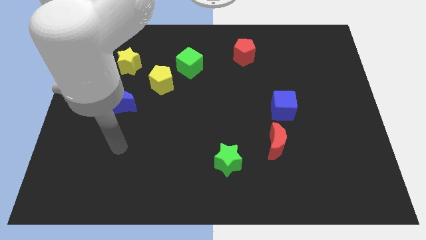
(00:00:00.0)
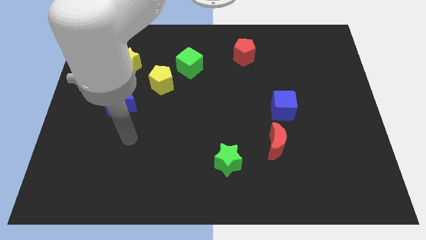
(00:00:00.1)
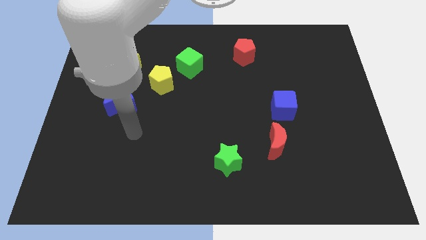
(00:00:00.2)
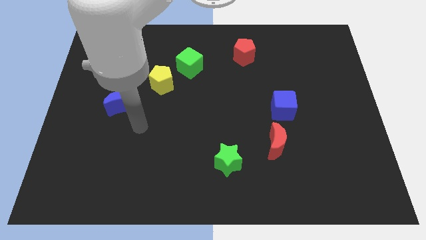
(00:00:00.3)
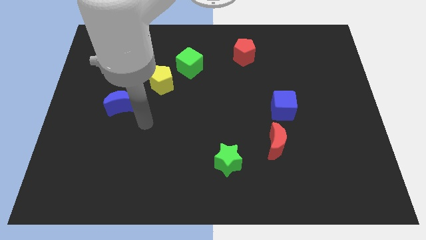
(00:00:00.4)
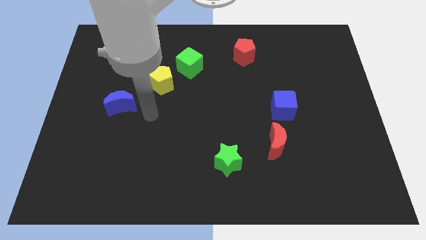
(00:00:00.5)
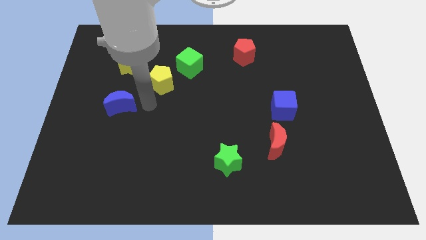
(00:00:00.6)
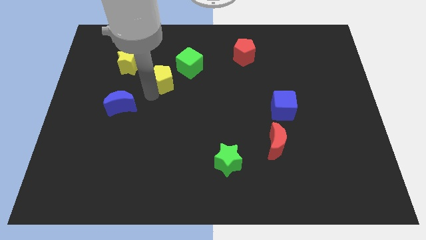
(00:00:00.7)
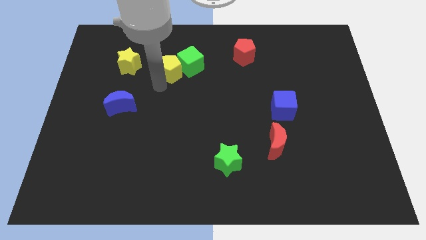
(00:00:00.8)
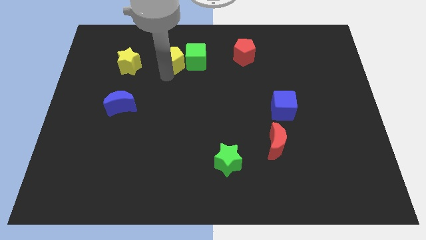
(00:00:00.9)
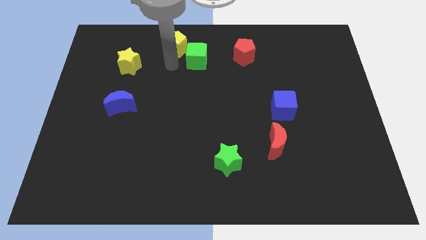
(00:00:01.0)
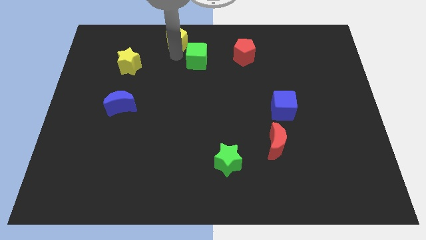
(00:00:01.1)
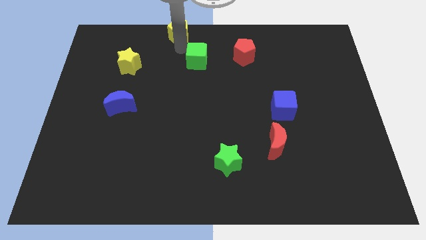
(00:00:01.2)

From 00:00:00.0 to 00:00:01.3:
move the green cube away from the yellow pentagon

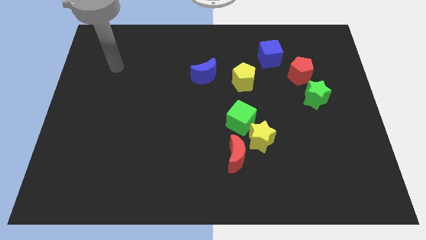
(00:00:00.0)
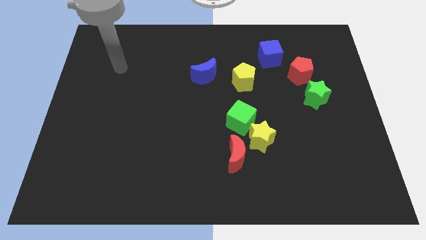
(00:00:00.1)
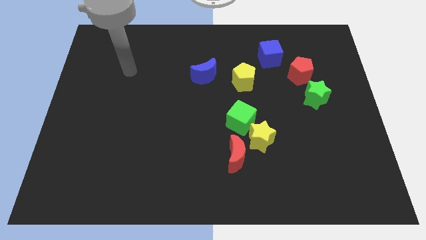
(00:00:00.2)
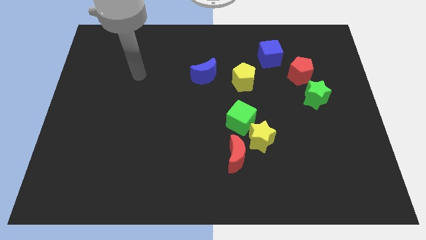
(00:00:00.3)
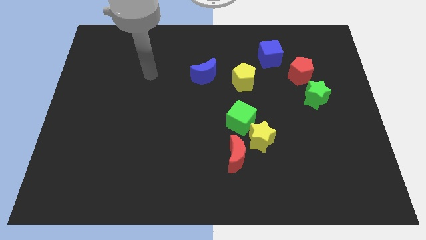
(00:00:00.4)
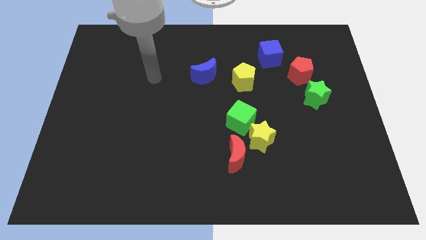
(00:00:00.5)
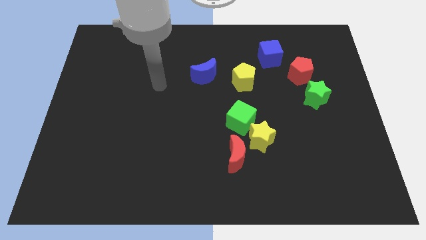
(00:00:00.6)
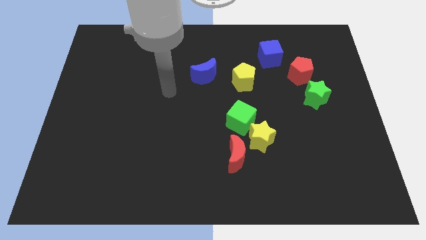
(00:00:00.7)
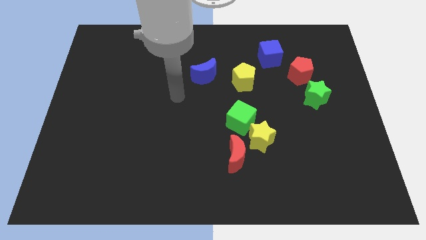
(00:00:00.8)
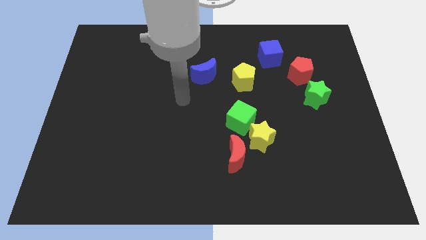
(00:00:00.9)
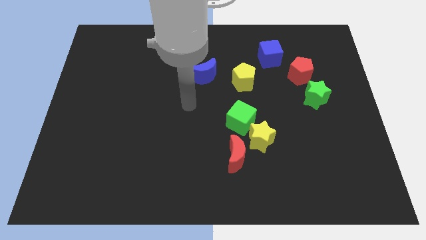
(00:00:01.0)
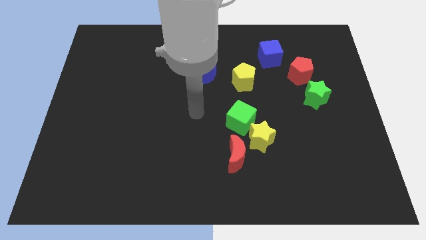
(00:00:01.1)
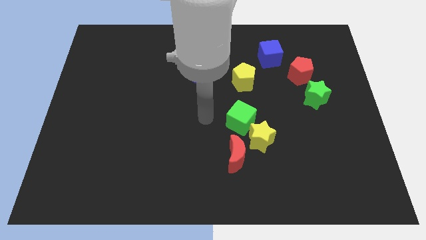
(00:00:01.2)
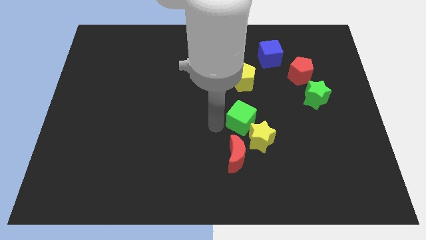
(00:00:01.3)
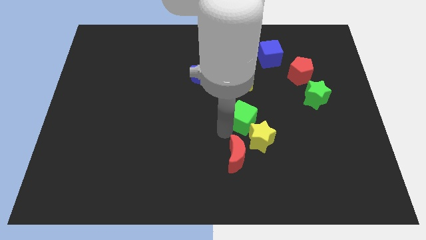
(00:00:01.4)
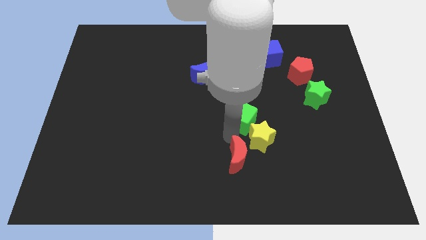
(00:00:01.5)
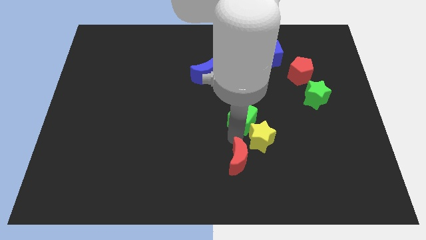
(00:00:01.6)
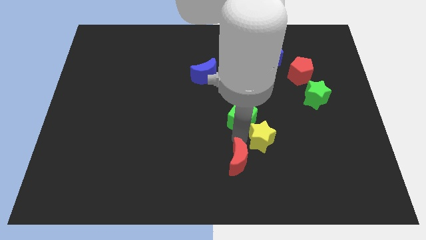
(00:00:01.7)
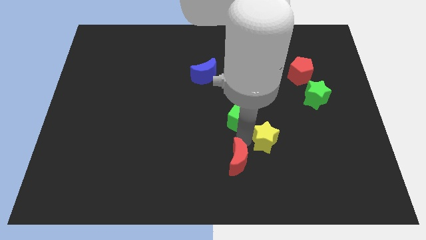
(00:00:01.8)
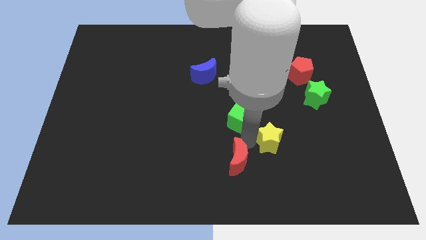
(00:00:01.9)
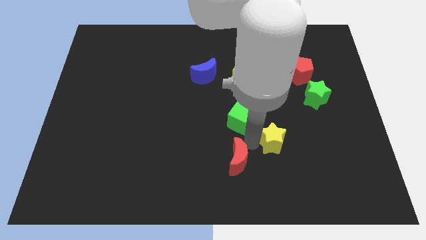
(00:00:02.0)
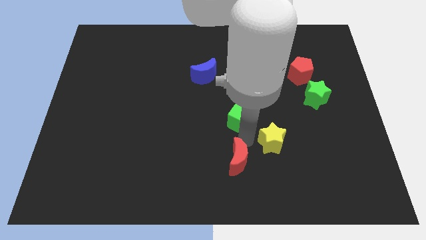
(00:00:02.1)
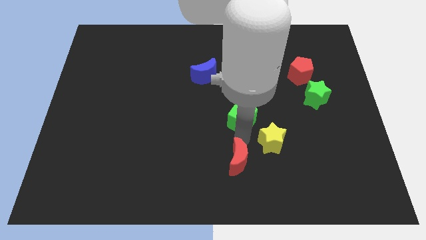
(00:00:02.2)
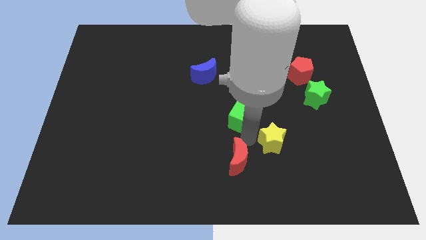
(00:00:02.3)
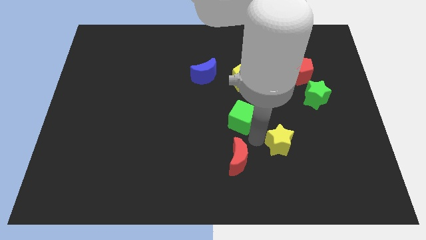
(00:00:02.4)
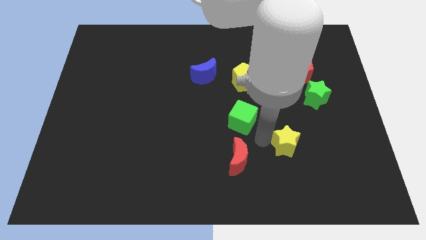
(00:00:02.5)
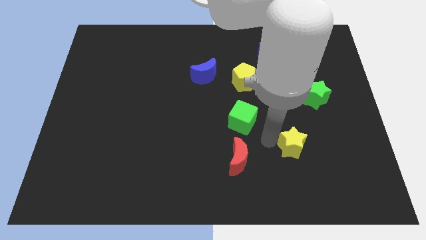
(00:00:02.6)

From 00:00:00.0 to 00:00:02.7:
move the yellow star away from the green cube and red moon

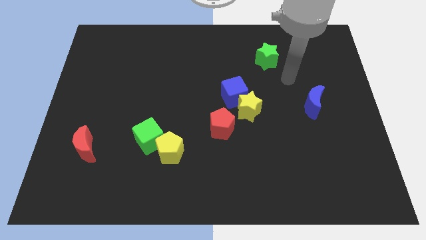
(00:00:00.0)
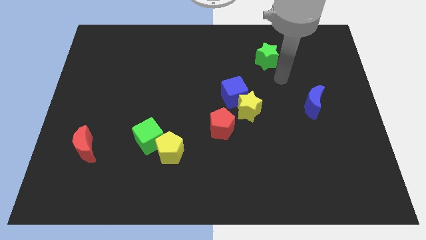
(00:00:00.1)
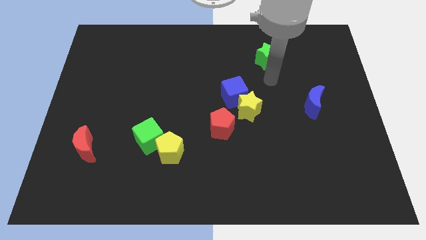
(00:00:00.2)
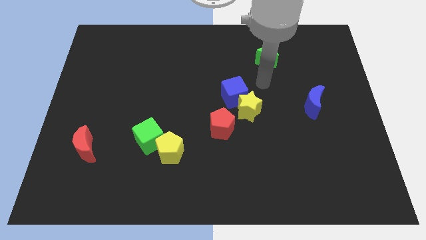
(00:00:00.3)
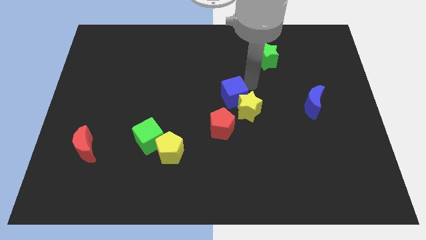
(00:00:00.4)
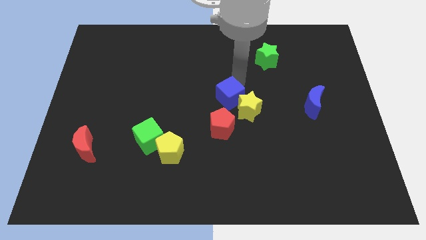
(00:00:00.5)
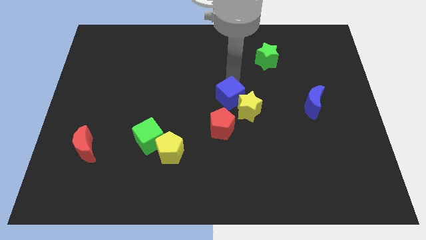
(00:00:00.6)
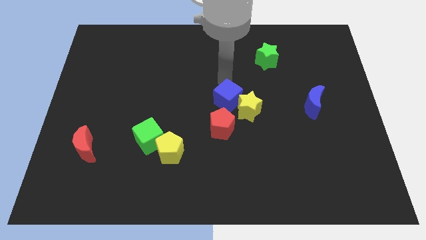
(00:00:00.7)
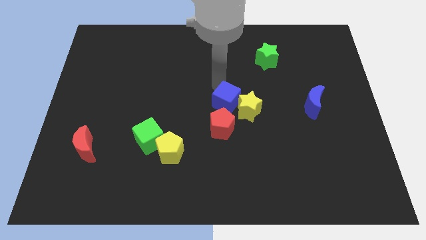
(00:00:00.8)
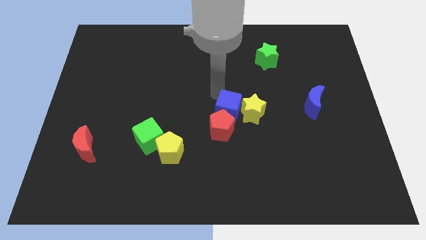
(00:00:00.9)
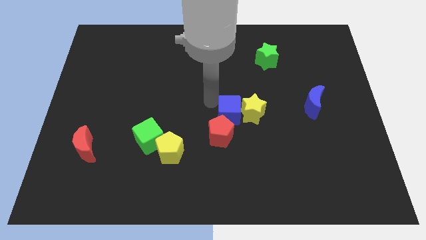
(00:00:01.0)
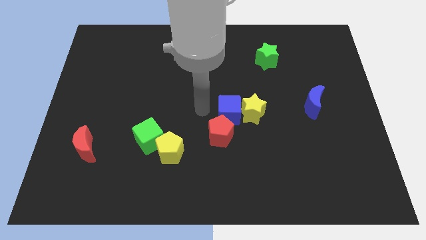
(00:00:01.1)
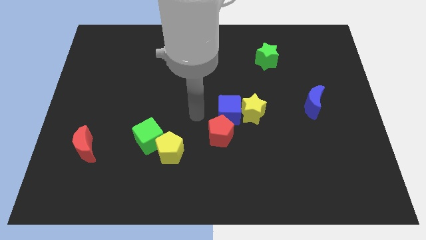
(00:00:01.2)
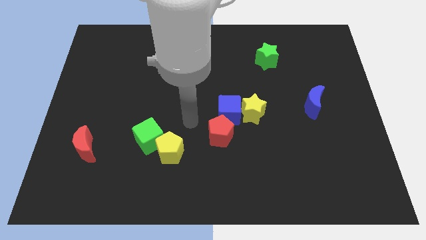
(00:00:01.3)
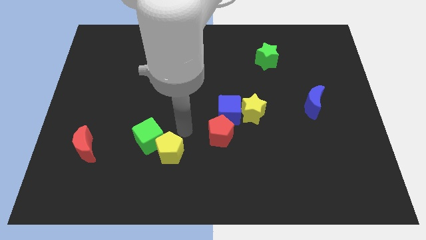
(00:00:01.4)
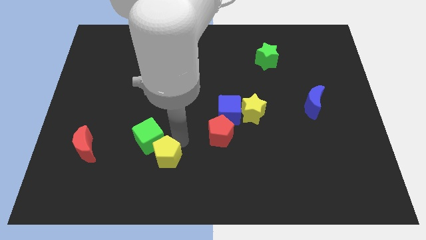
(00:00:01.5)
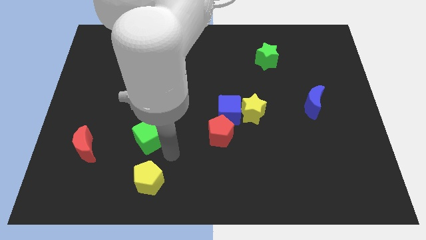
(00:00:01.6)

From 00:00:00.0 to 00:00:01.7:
pull the green cube apart from the yellow pentagon

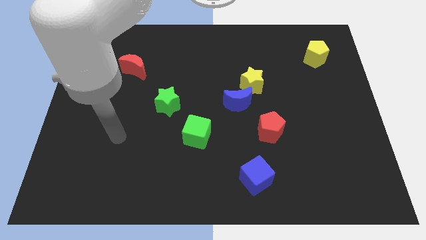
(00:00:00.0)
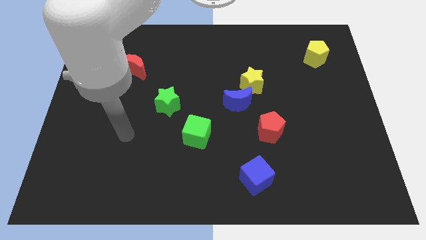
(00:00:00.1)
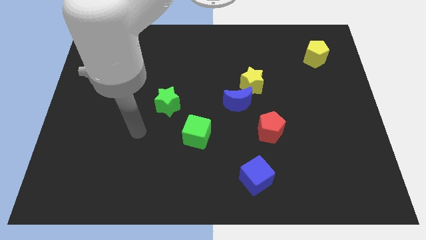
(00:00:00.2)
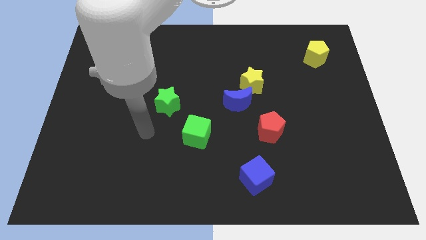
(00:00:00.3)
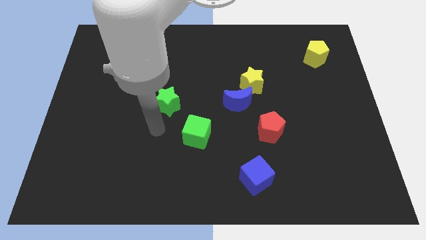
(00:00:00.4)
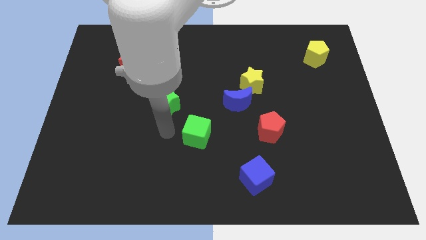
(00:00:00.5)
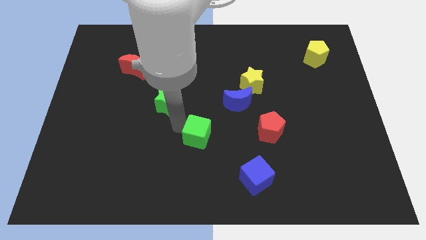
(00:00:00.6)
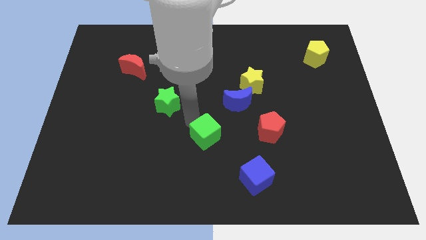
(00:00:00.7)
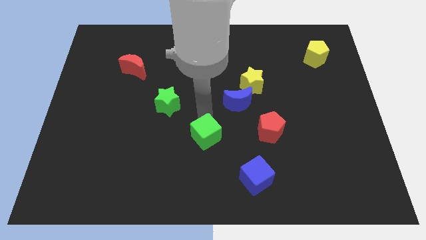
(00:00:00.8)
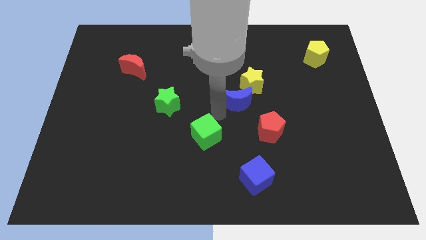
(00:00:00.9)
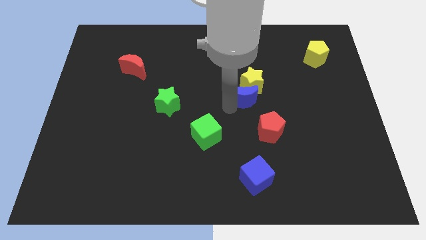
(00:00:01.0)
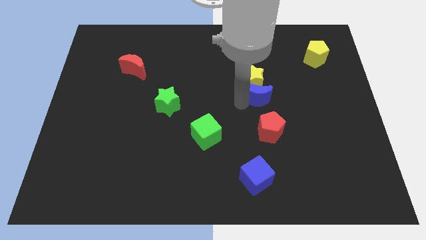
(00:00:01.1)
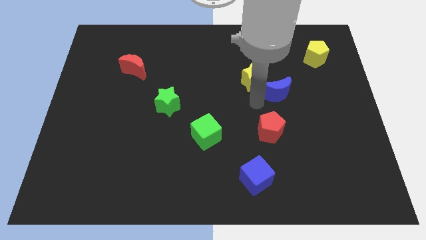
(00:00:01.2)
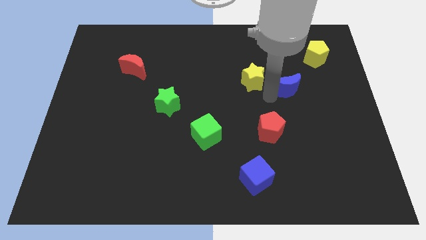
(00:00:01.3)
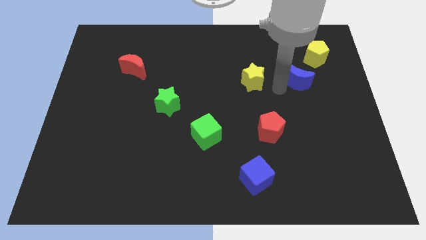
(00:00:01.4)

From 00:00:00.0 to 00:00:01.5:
pull the yellow star apart from the blue moon

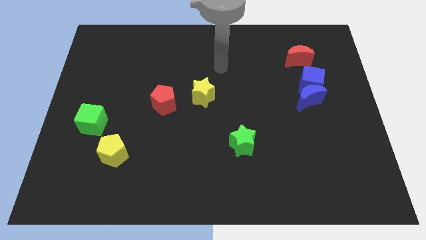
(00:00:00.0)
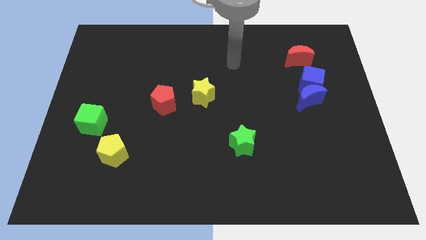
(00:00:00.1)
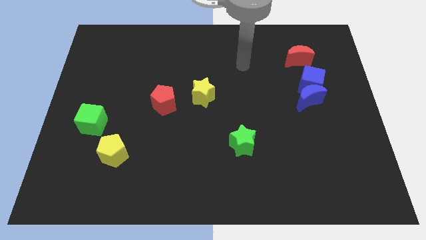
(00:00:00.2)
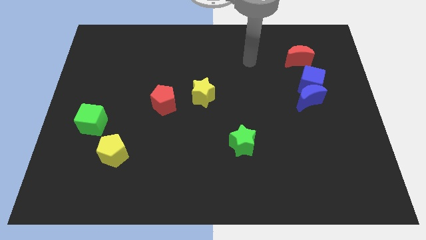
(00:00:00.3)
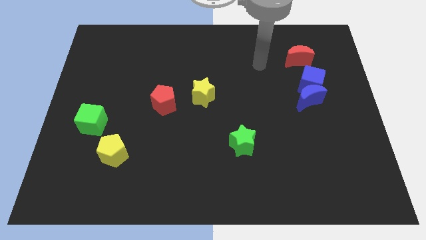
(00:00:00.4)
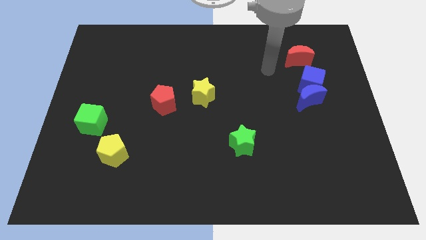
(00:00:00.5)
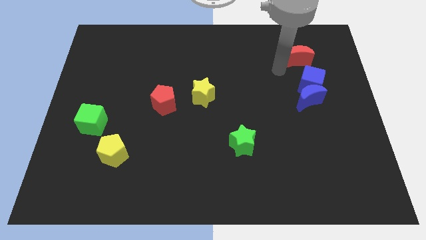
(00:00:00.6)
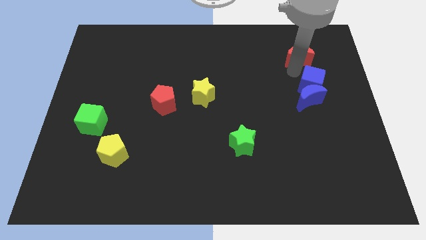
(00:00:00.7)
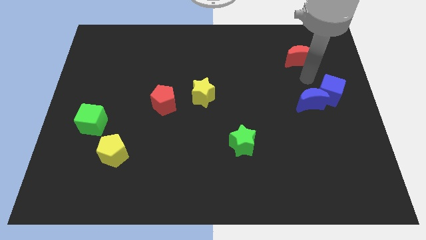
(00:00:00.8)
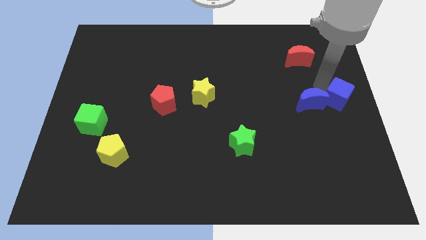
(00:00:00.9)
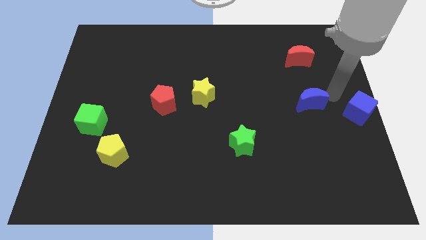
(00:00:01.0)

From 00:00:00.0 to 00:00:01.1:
move the blue moon away from the blue cube

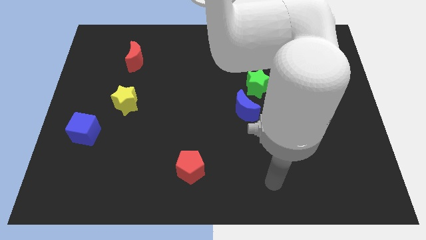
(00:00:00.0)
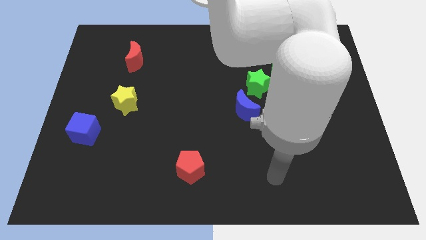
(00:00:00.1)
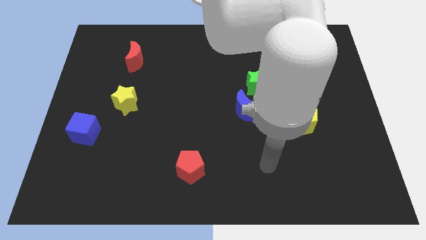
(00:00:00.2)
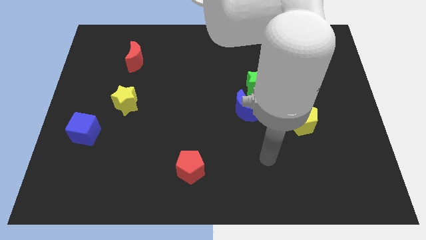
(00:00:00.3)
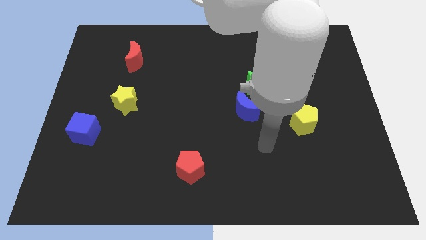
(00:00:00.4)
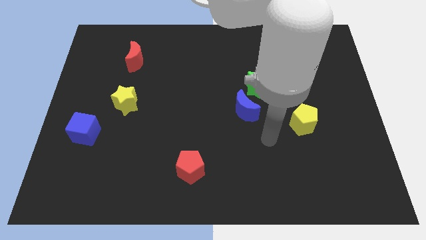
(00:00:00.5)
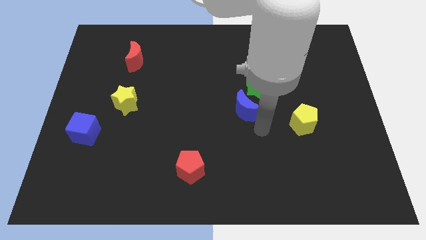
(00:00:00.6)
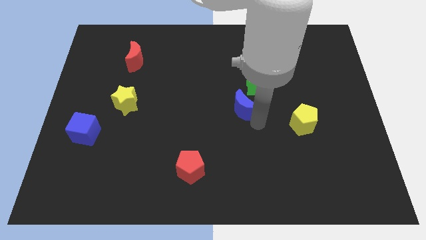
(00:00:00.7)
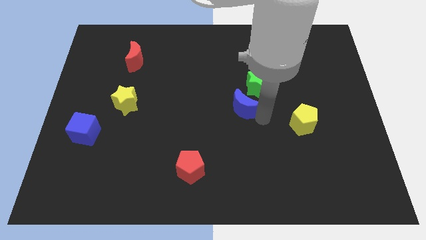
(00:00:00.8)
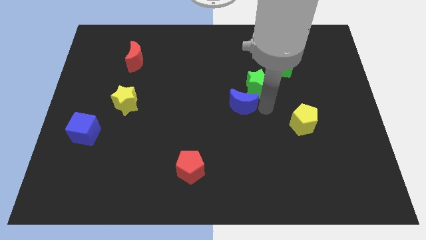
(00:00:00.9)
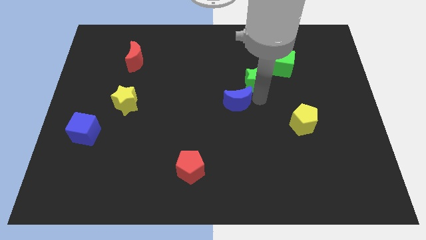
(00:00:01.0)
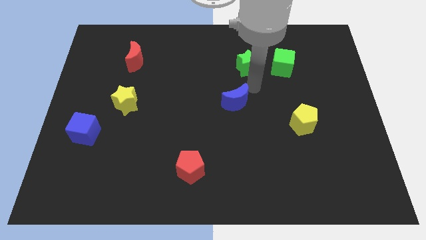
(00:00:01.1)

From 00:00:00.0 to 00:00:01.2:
move the blue moon away from the green star
